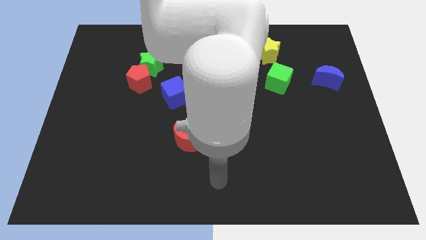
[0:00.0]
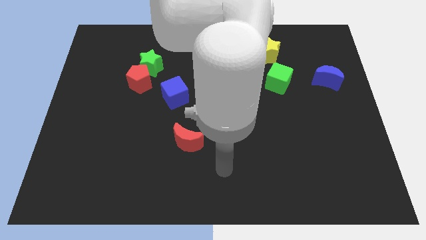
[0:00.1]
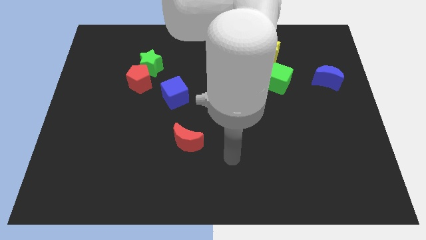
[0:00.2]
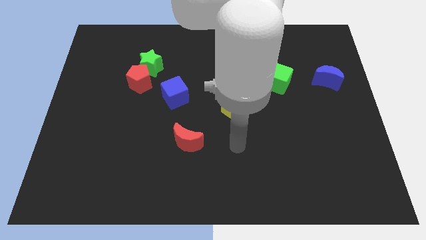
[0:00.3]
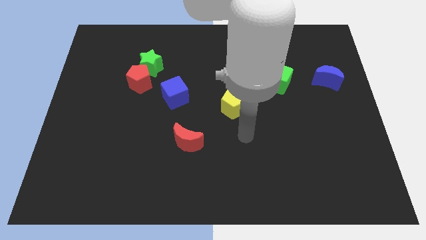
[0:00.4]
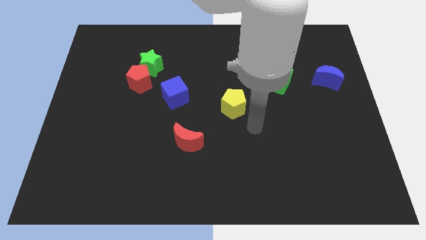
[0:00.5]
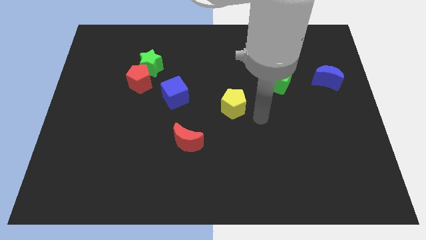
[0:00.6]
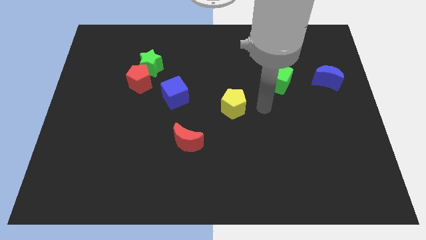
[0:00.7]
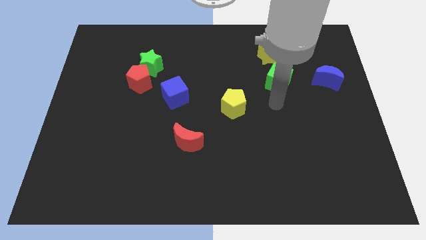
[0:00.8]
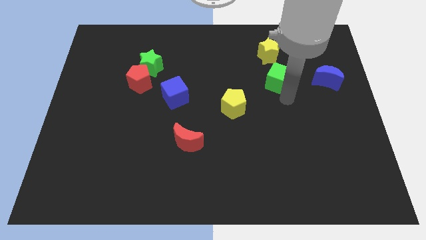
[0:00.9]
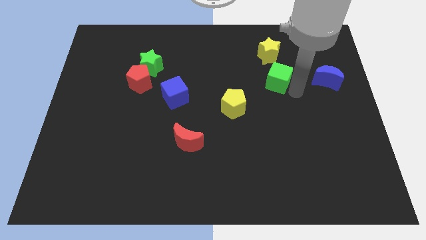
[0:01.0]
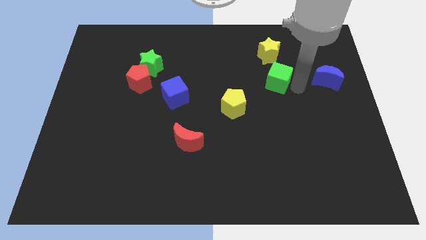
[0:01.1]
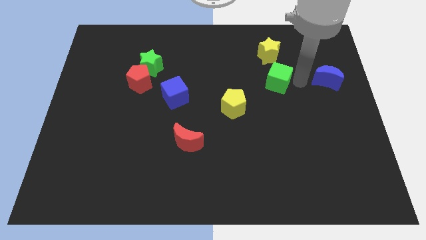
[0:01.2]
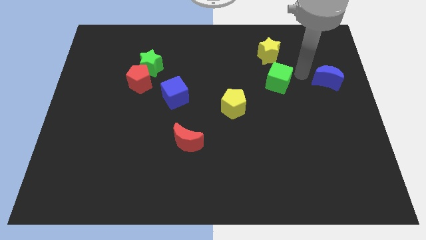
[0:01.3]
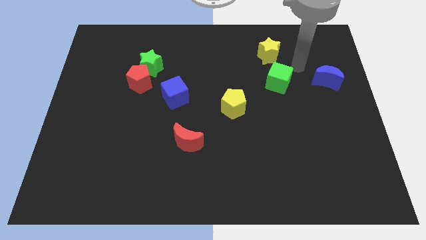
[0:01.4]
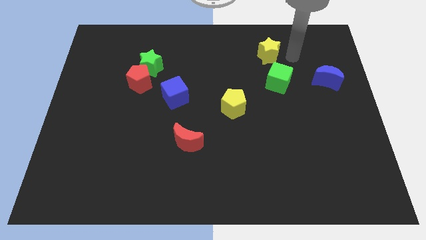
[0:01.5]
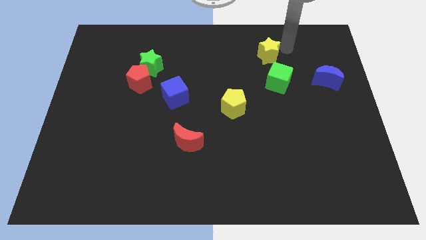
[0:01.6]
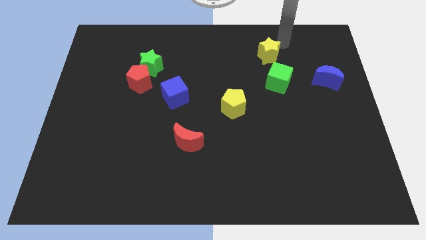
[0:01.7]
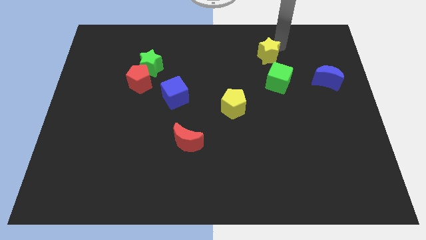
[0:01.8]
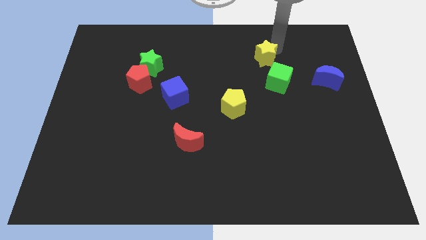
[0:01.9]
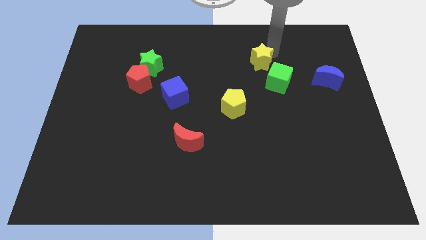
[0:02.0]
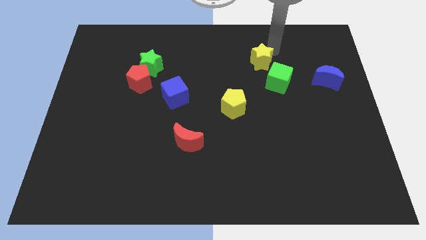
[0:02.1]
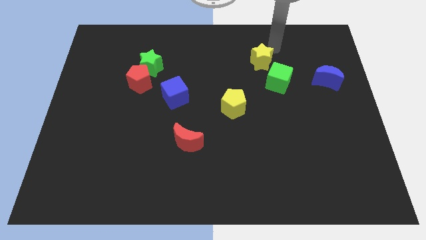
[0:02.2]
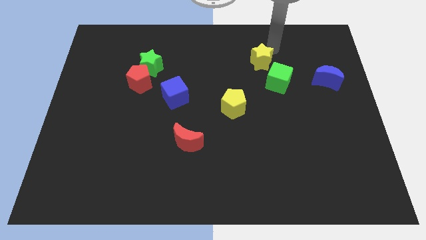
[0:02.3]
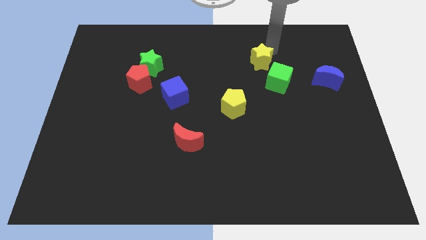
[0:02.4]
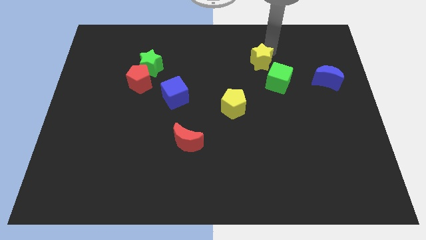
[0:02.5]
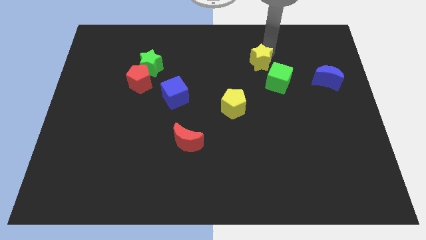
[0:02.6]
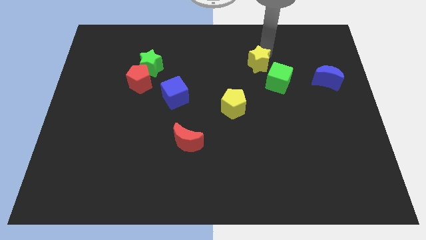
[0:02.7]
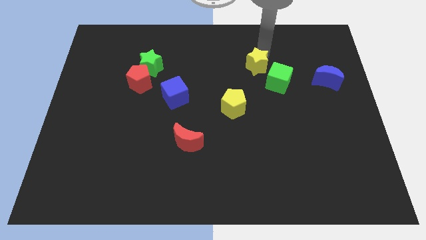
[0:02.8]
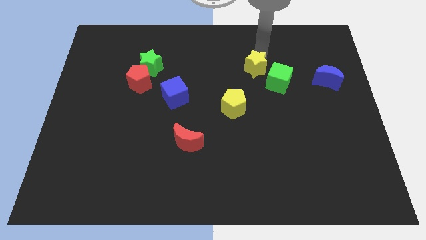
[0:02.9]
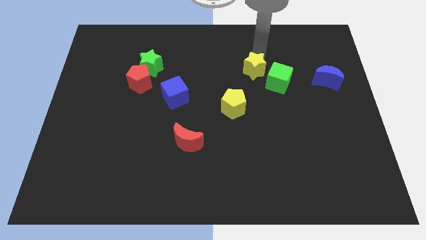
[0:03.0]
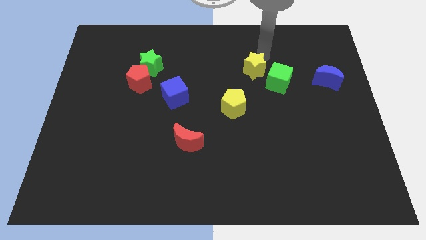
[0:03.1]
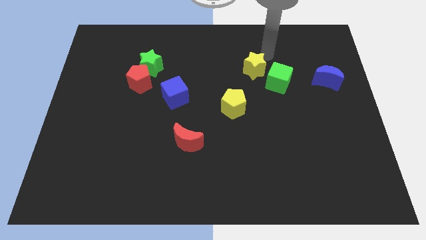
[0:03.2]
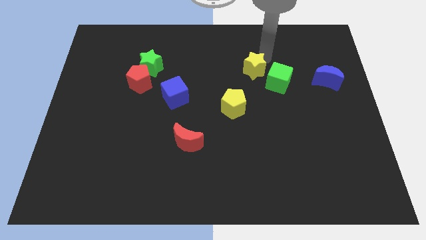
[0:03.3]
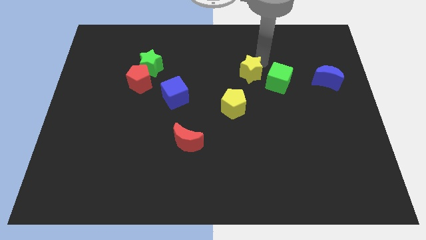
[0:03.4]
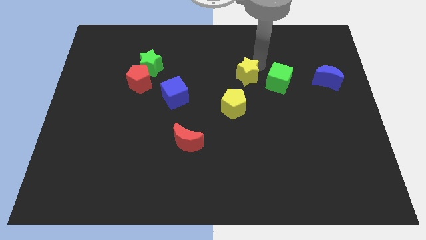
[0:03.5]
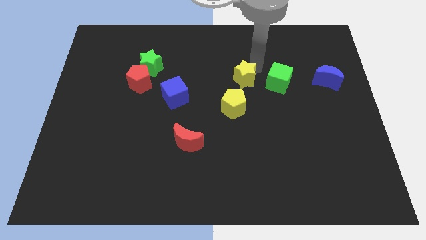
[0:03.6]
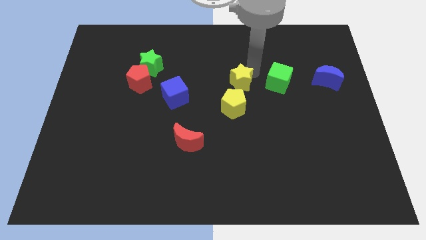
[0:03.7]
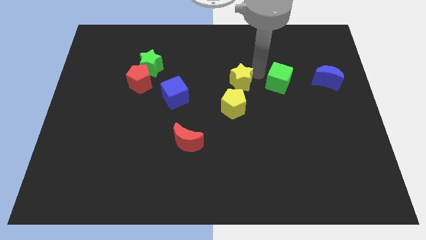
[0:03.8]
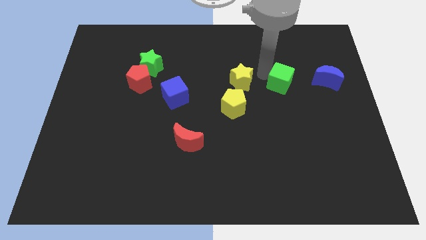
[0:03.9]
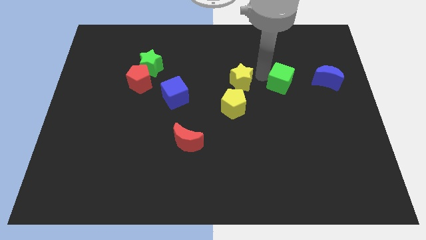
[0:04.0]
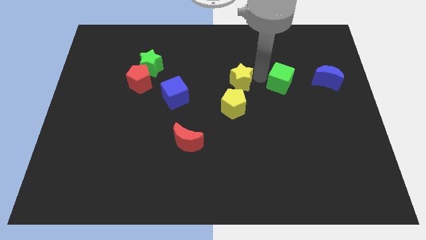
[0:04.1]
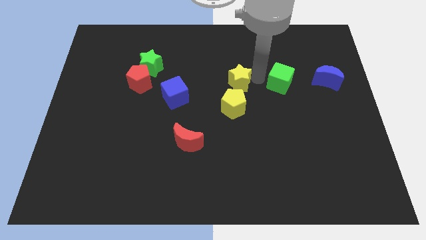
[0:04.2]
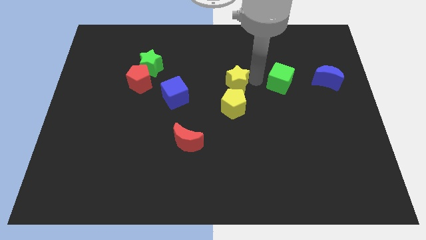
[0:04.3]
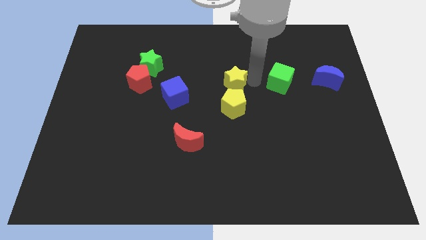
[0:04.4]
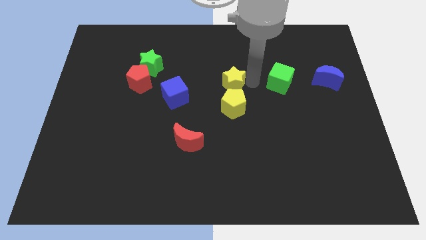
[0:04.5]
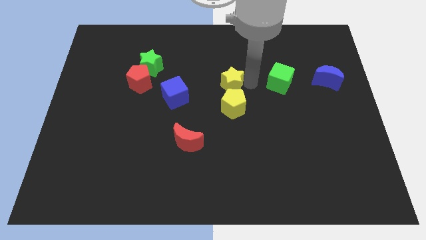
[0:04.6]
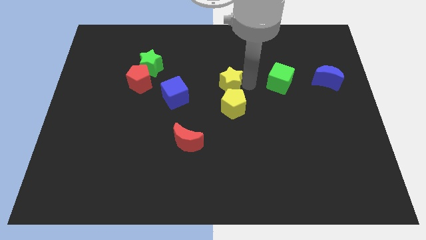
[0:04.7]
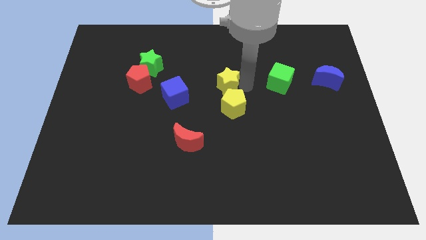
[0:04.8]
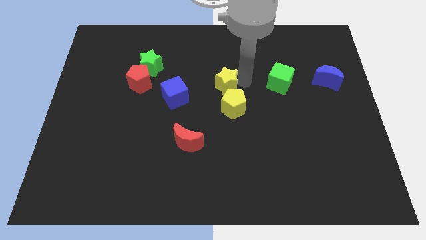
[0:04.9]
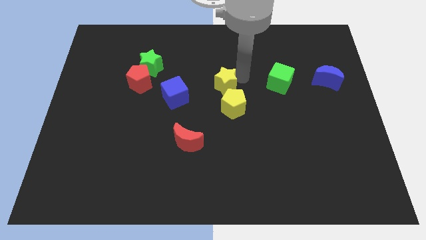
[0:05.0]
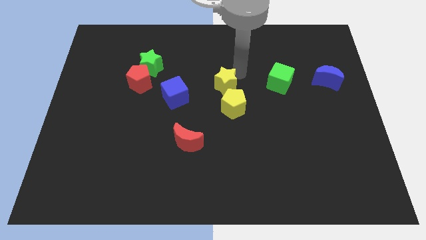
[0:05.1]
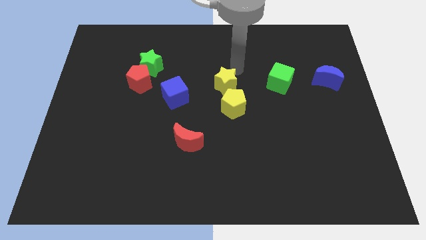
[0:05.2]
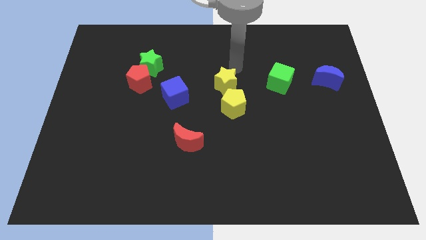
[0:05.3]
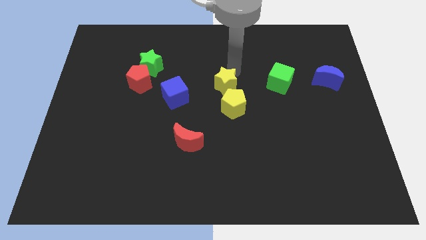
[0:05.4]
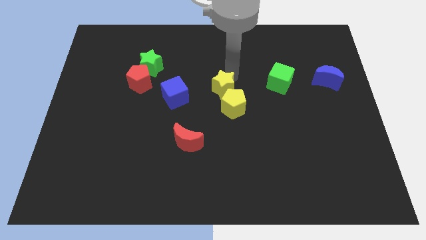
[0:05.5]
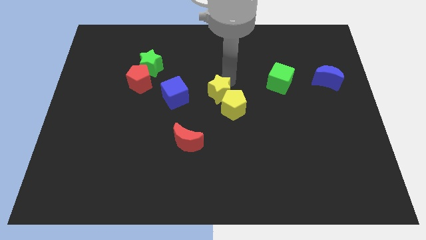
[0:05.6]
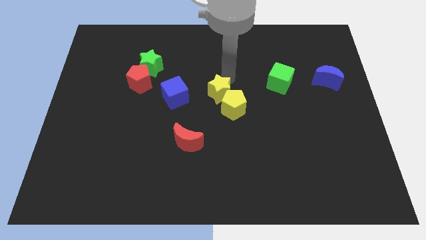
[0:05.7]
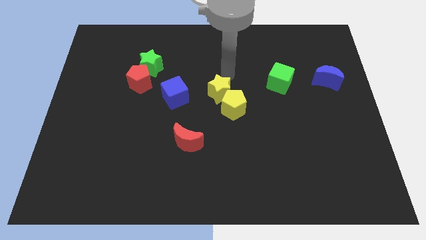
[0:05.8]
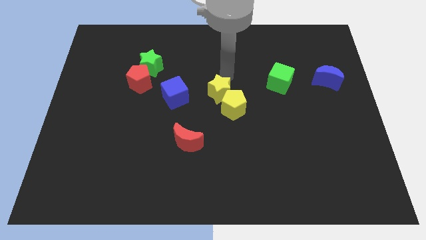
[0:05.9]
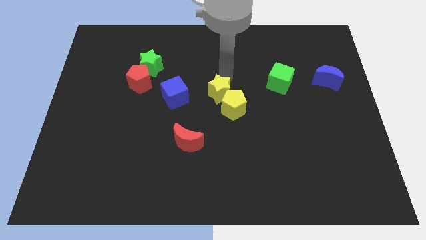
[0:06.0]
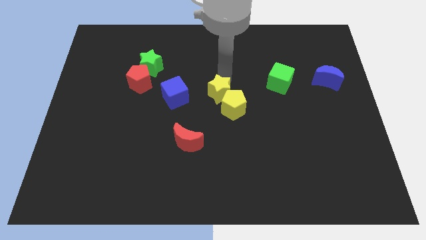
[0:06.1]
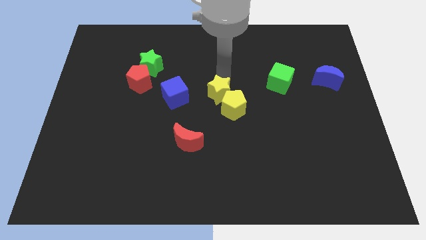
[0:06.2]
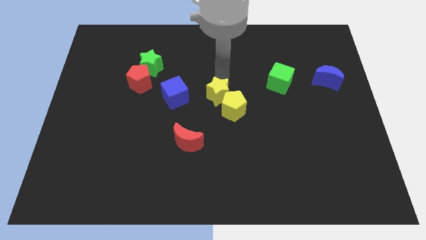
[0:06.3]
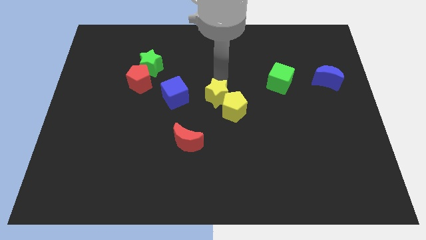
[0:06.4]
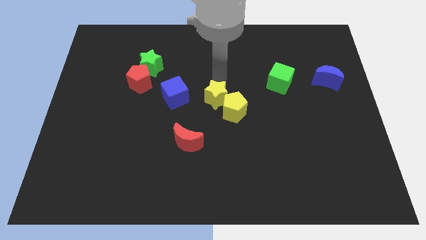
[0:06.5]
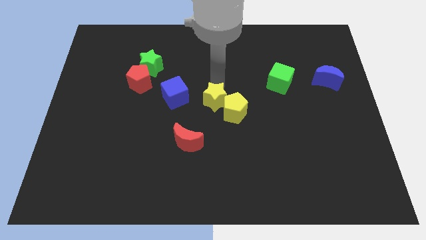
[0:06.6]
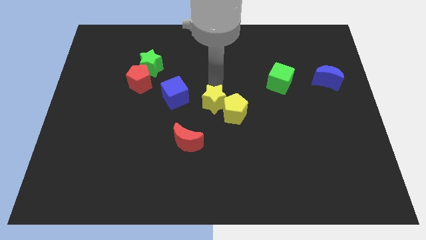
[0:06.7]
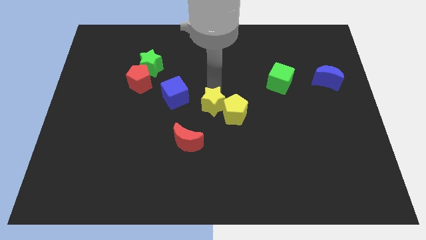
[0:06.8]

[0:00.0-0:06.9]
slide the yellow star to the top right of the red moon

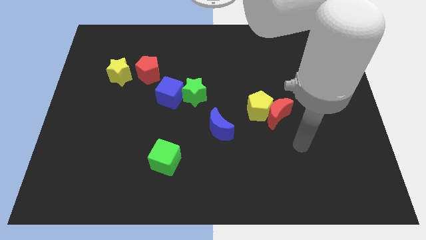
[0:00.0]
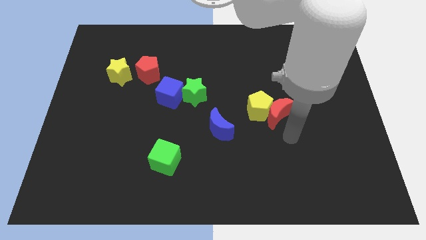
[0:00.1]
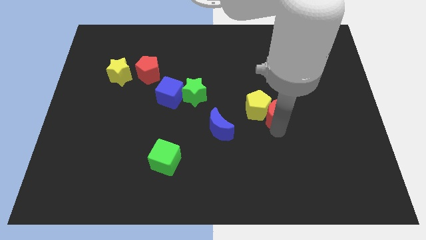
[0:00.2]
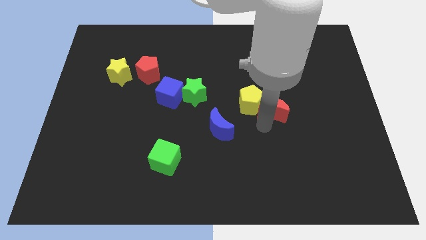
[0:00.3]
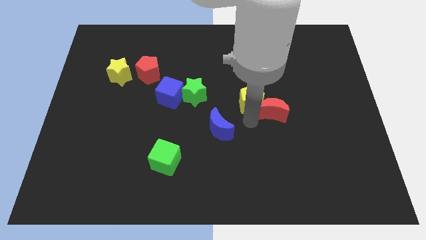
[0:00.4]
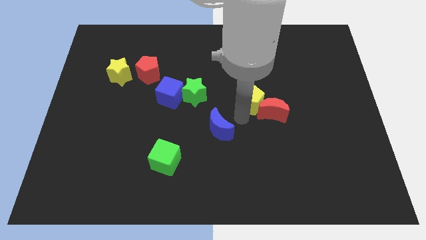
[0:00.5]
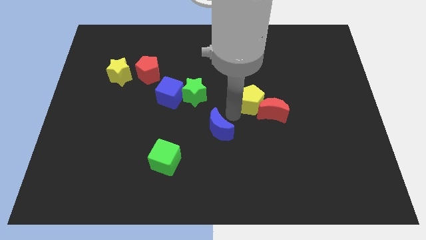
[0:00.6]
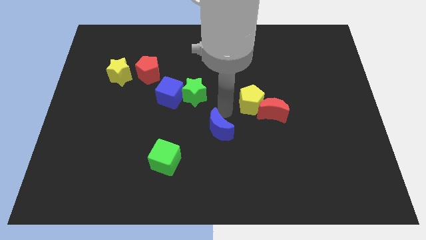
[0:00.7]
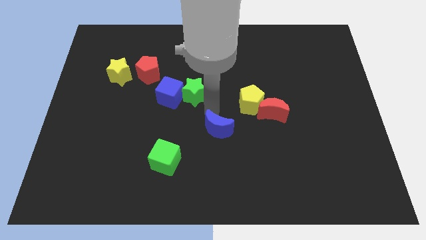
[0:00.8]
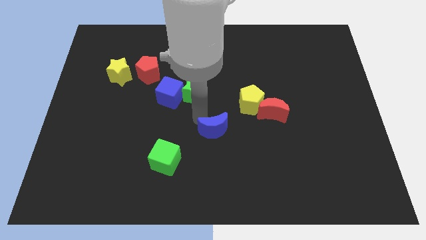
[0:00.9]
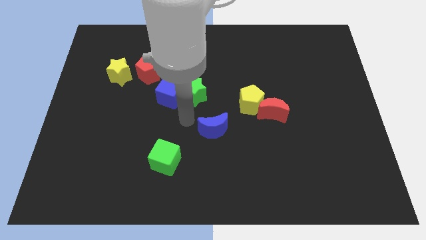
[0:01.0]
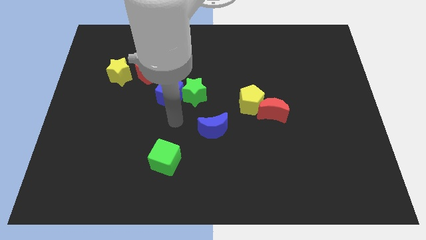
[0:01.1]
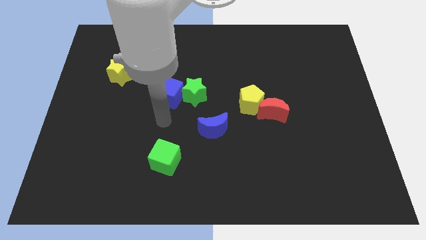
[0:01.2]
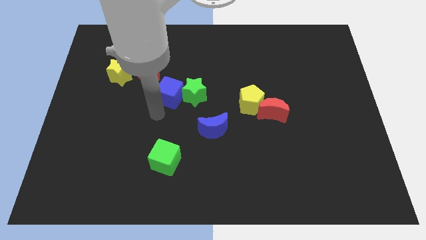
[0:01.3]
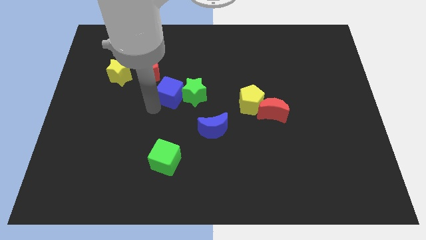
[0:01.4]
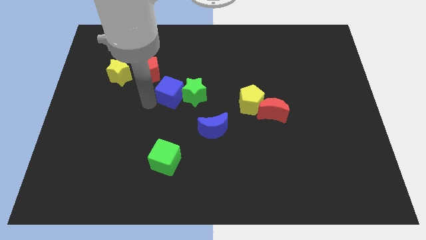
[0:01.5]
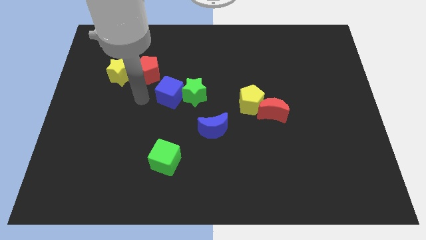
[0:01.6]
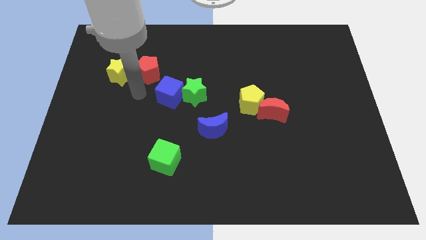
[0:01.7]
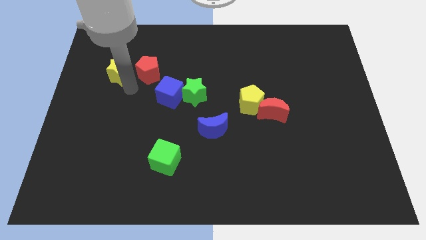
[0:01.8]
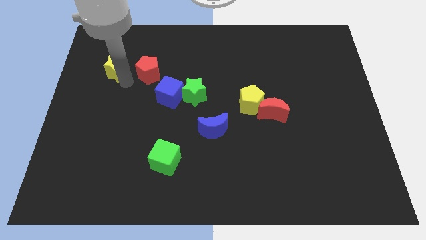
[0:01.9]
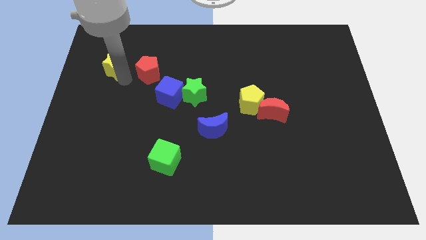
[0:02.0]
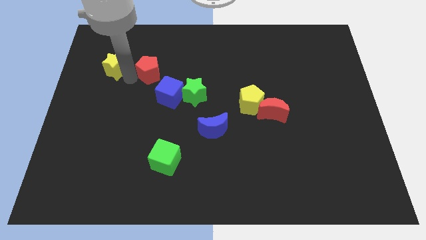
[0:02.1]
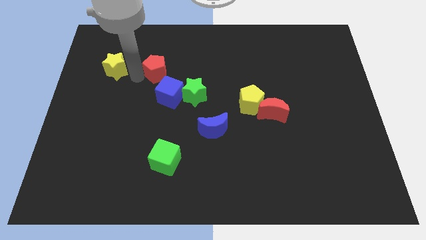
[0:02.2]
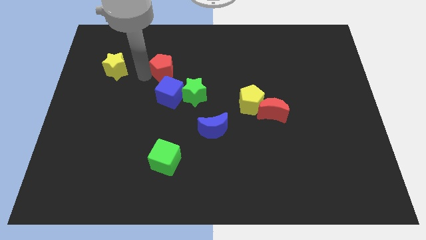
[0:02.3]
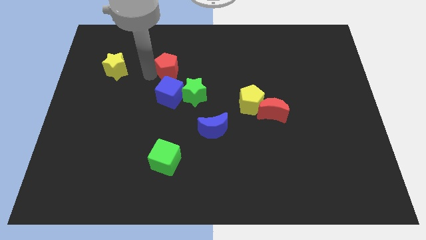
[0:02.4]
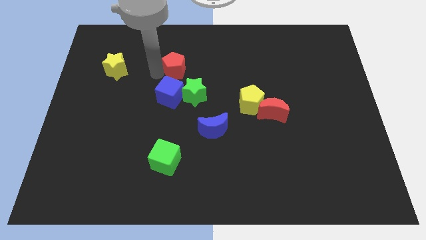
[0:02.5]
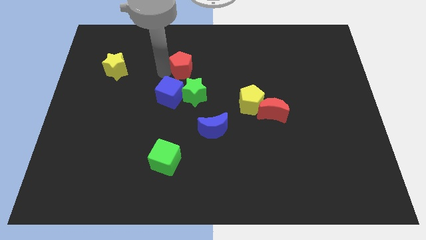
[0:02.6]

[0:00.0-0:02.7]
put the red pentagon to the top of the green star
